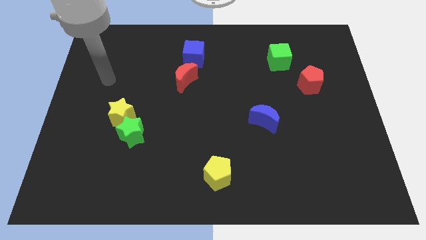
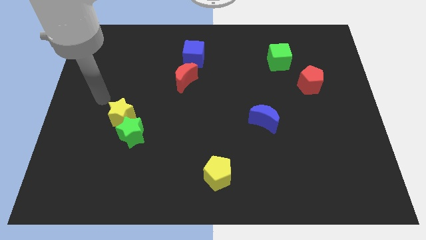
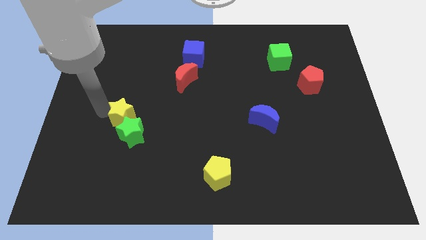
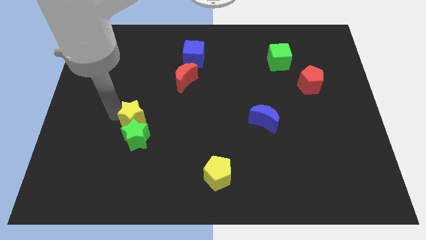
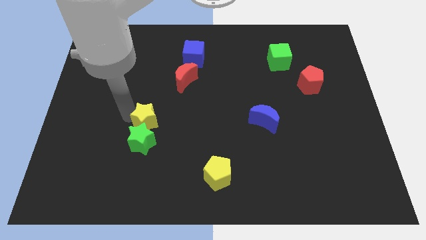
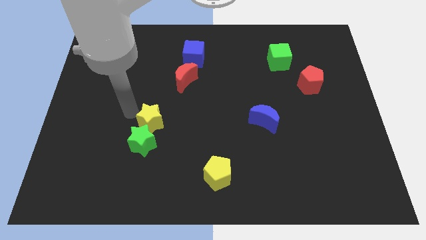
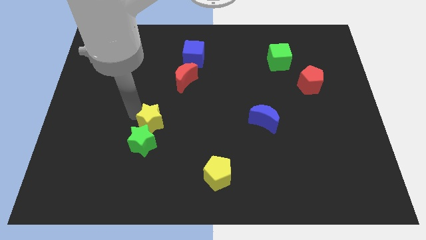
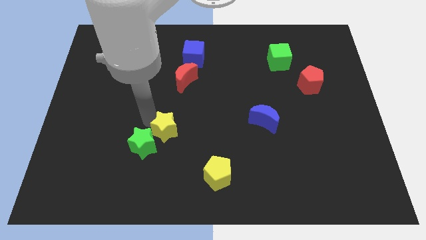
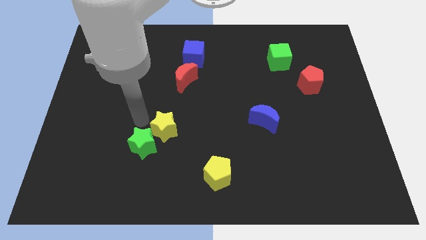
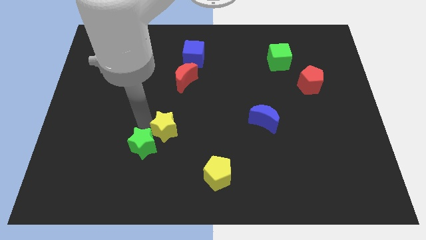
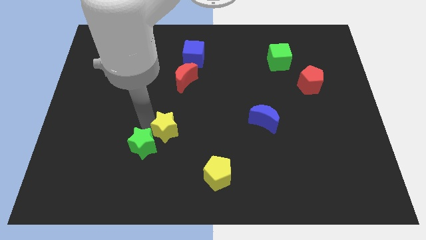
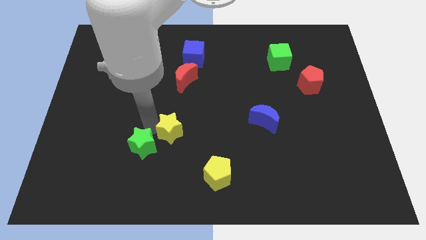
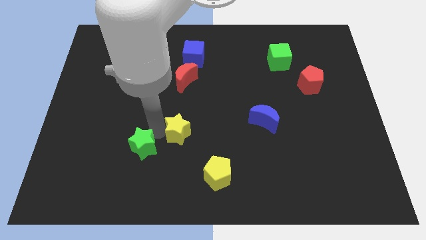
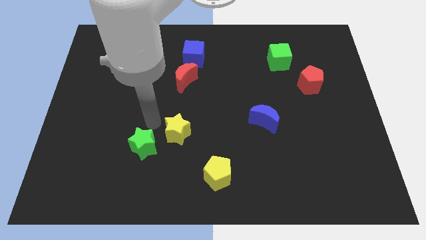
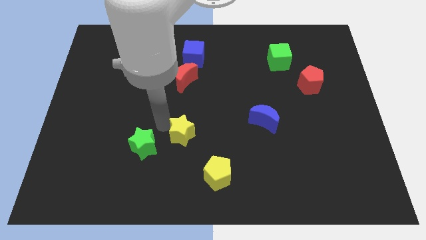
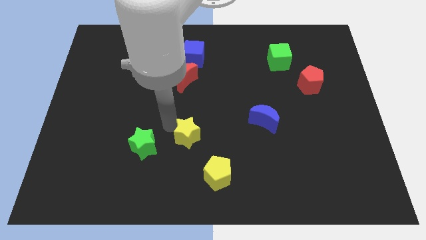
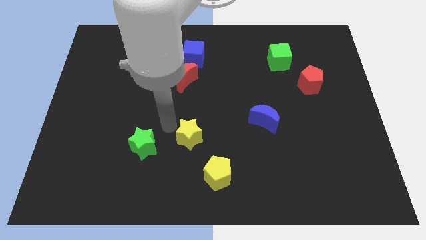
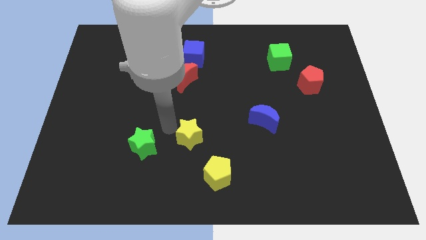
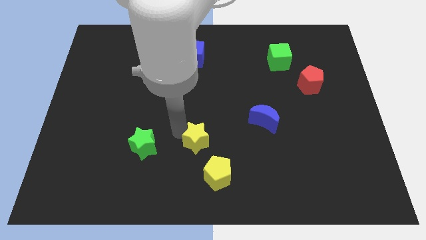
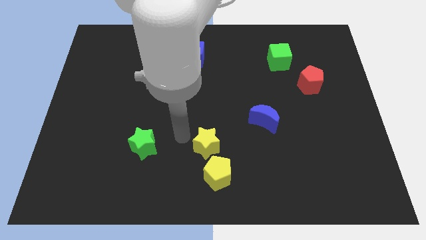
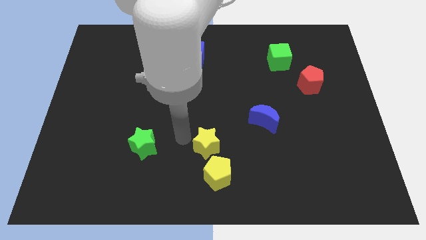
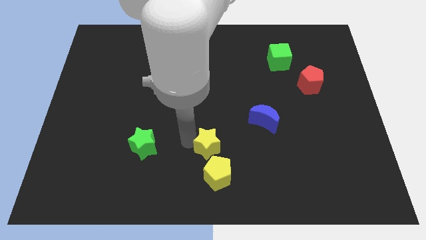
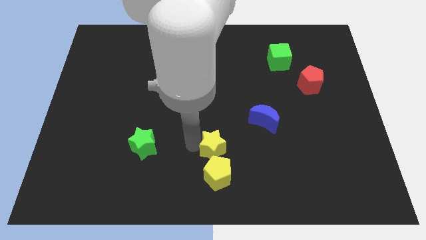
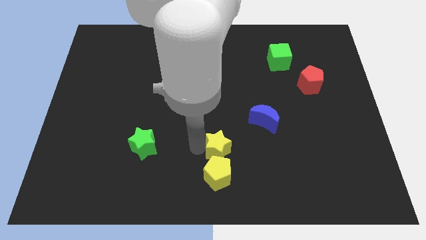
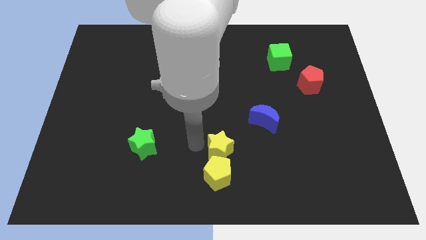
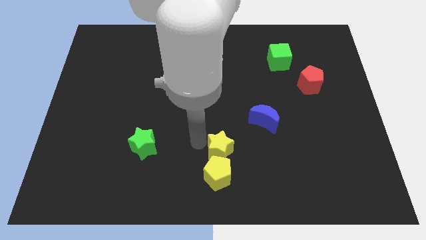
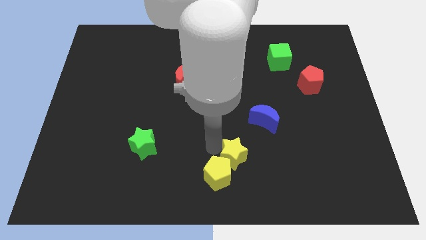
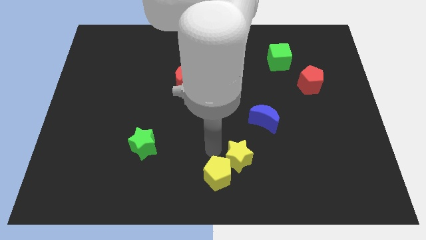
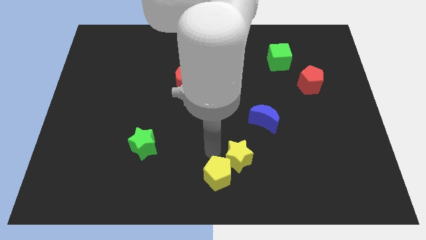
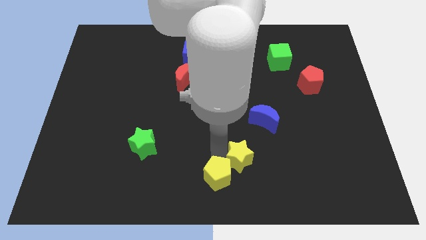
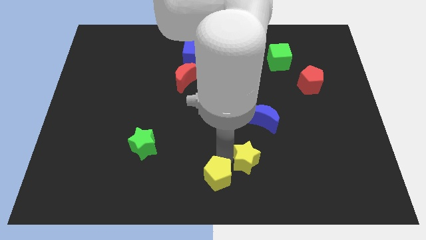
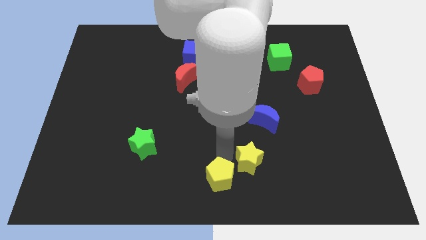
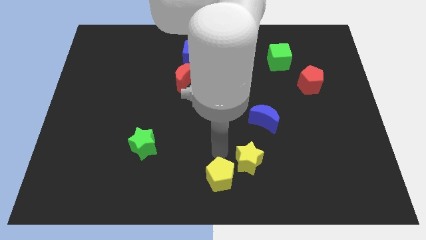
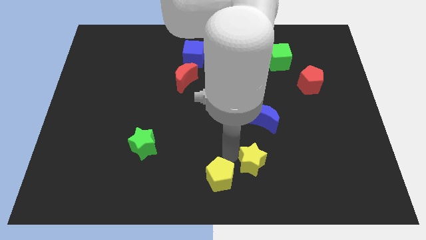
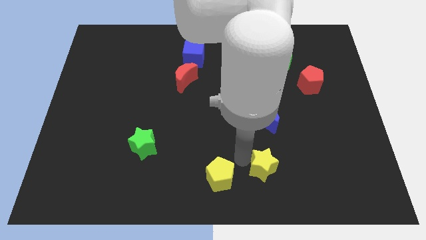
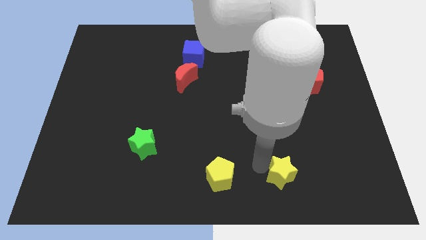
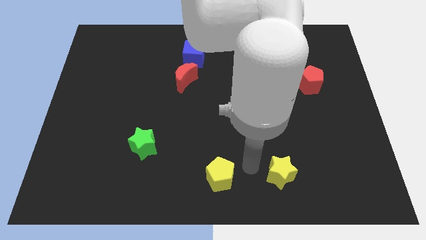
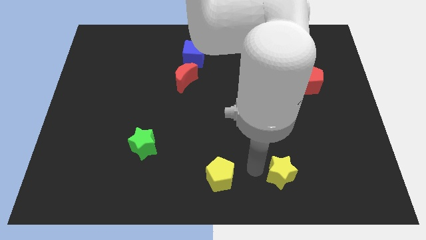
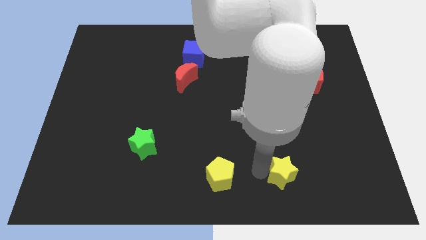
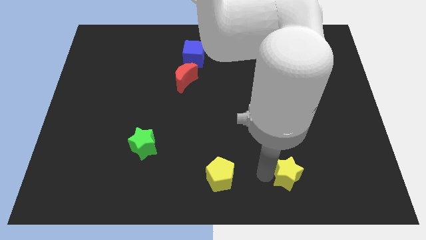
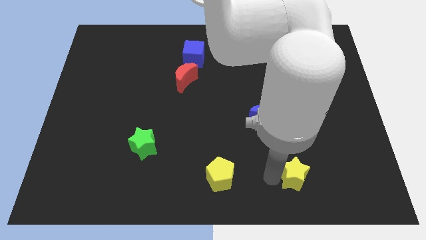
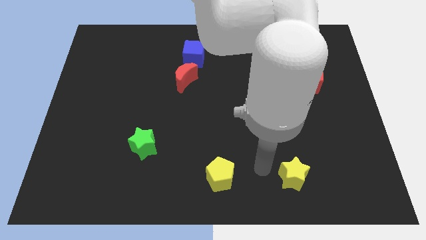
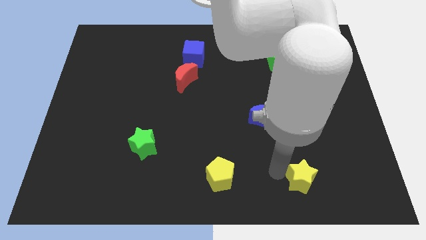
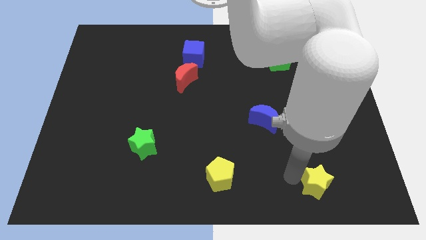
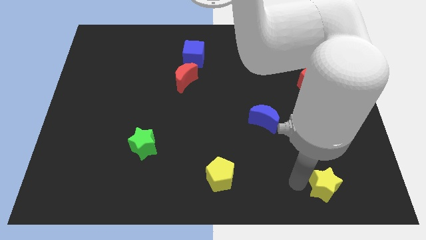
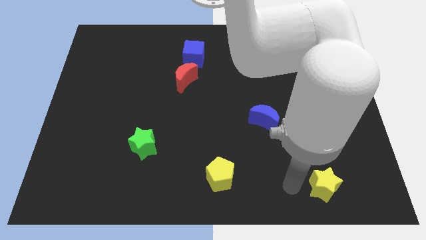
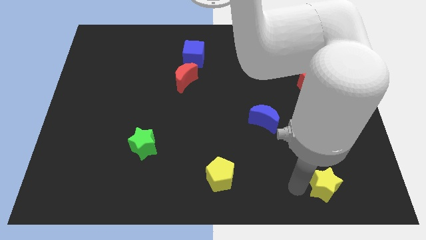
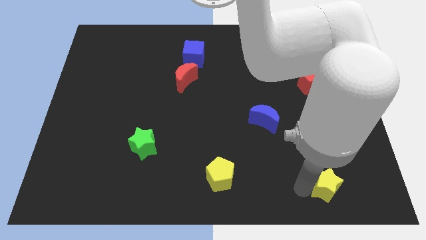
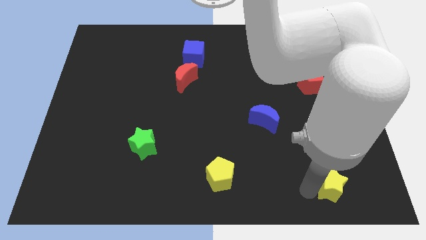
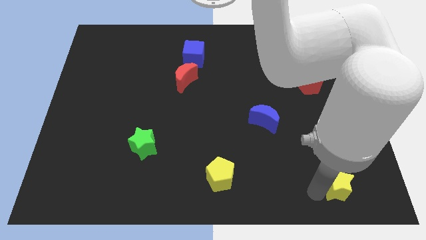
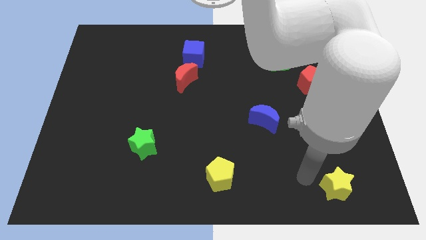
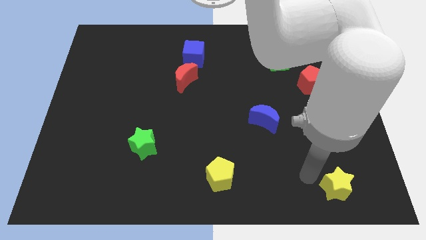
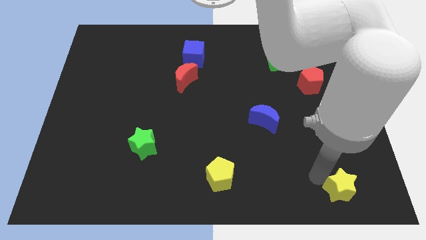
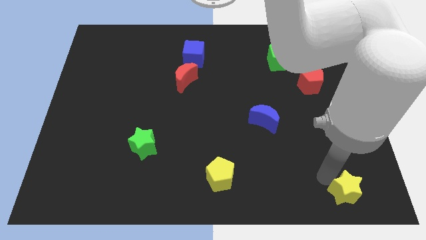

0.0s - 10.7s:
move the yellow star to the bottom right of the board
